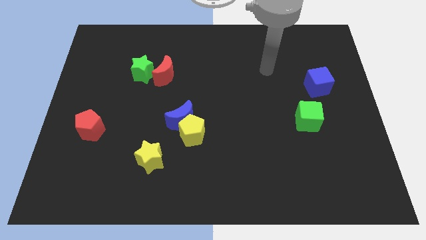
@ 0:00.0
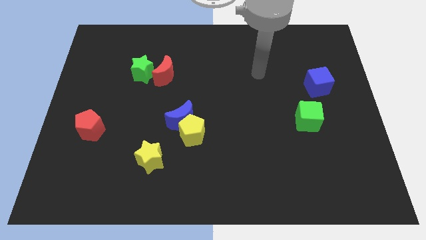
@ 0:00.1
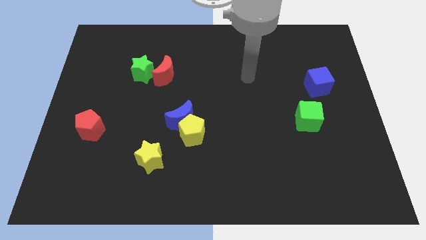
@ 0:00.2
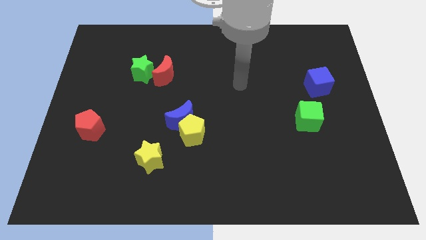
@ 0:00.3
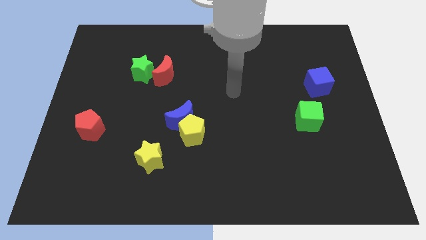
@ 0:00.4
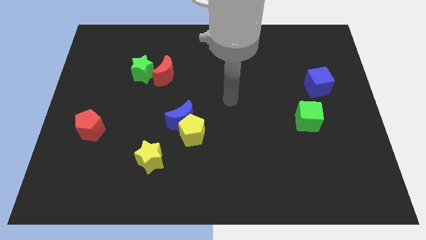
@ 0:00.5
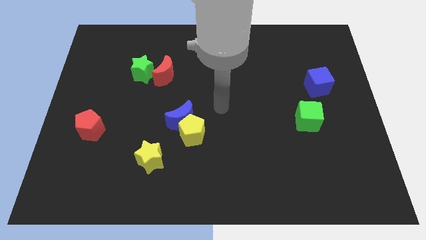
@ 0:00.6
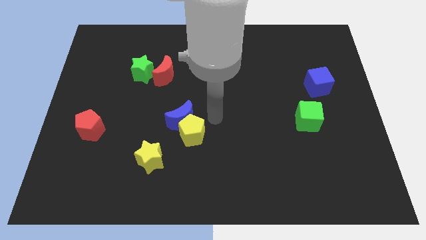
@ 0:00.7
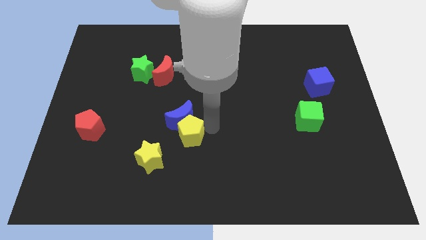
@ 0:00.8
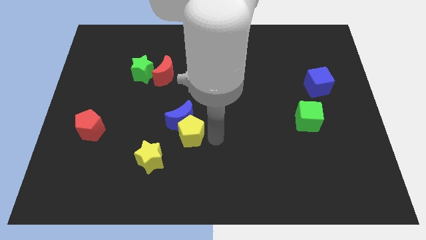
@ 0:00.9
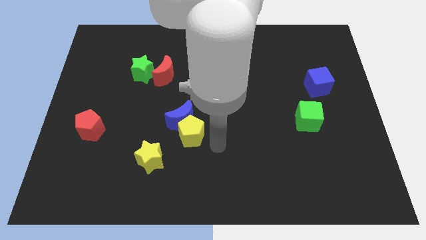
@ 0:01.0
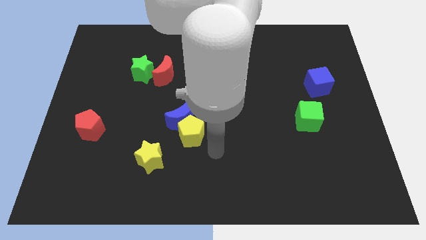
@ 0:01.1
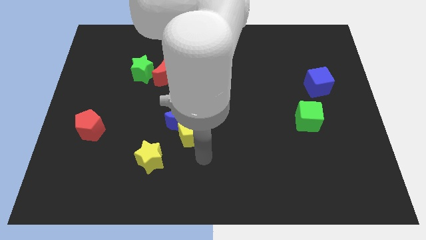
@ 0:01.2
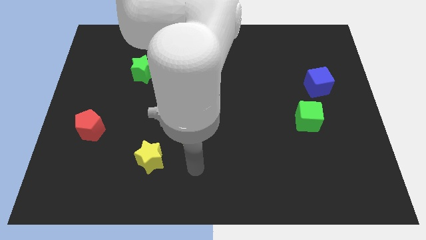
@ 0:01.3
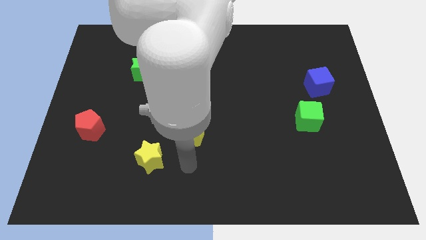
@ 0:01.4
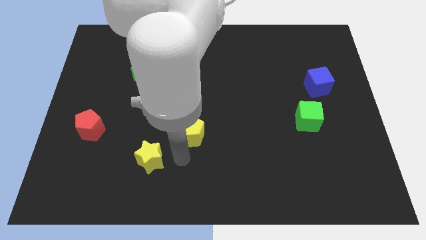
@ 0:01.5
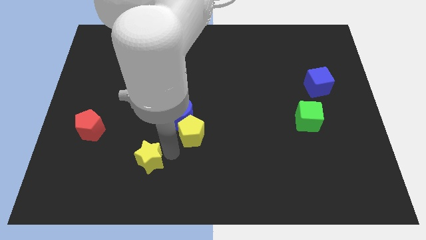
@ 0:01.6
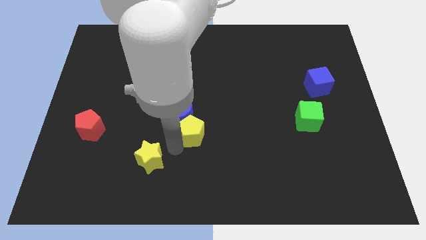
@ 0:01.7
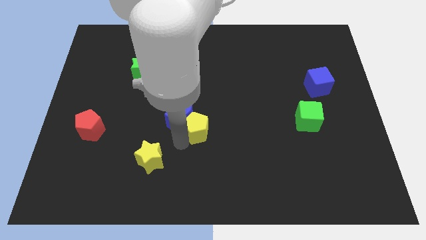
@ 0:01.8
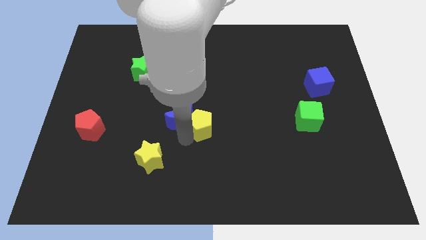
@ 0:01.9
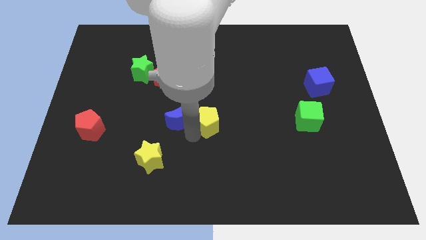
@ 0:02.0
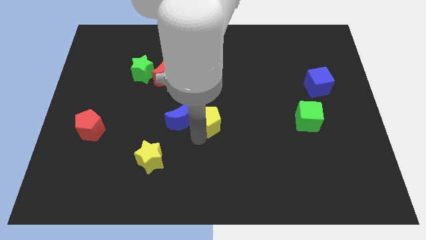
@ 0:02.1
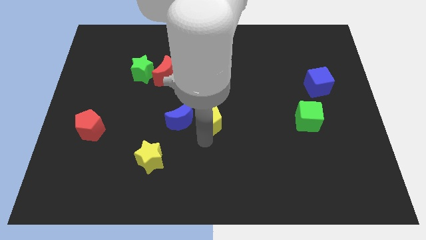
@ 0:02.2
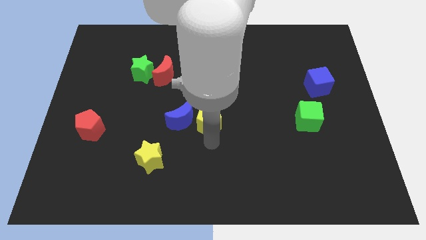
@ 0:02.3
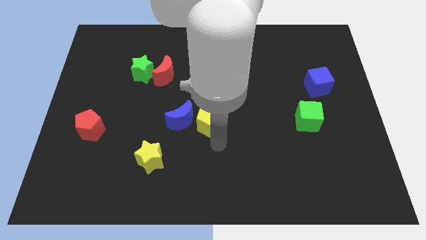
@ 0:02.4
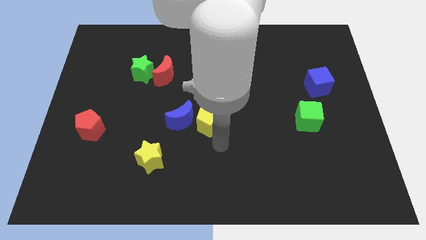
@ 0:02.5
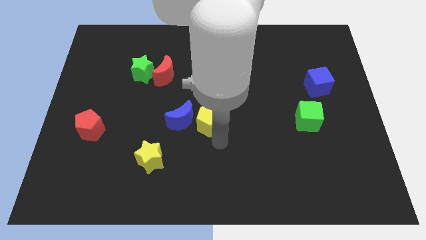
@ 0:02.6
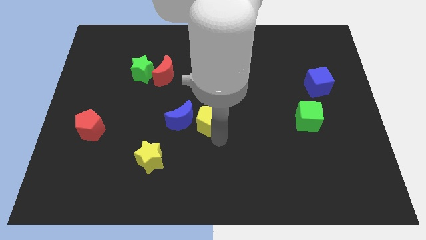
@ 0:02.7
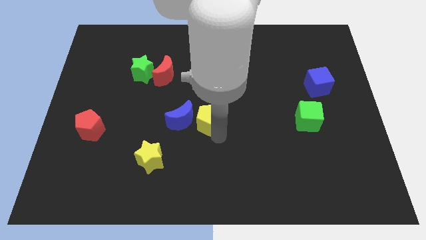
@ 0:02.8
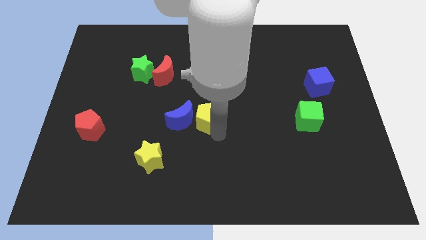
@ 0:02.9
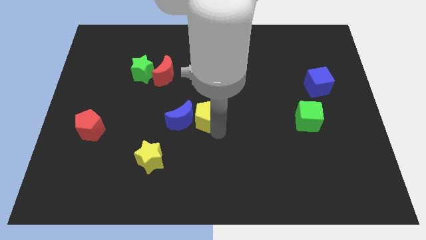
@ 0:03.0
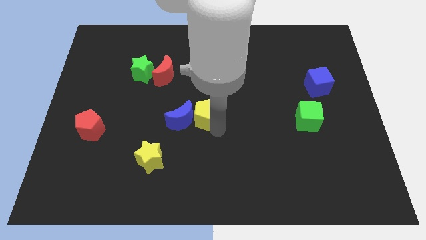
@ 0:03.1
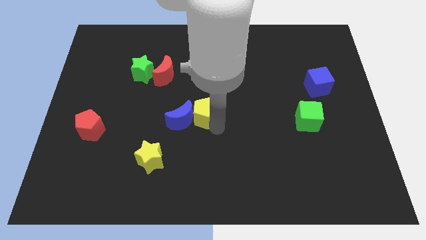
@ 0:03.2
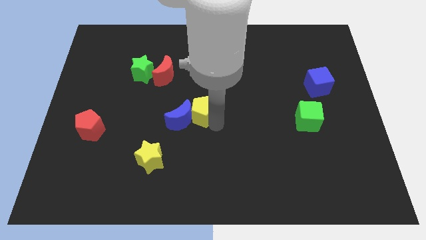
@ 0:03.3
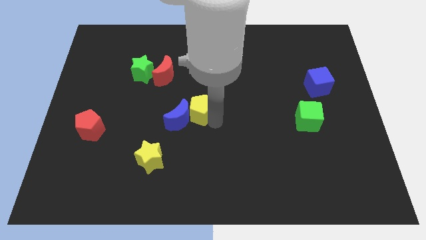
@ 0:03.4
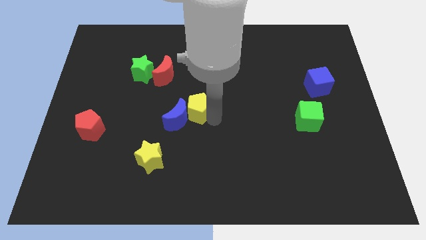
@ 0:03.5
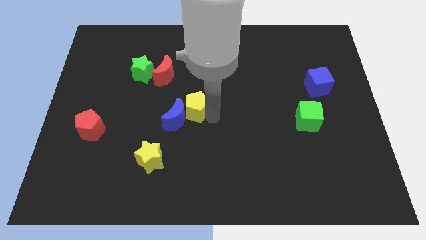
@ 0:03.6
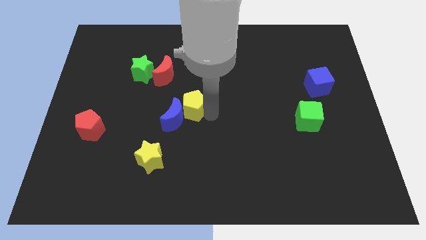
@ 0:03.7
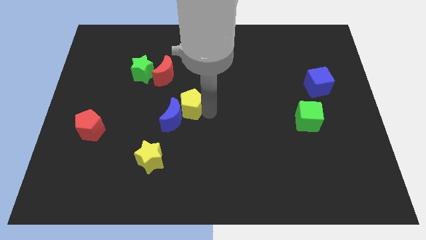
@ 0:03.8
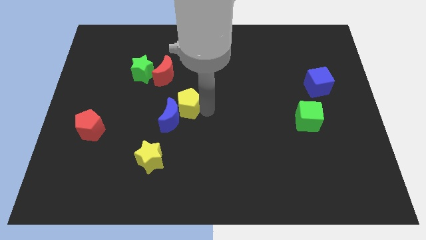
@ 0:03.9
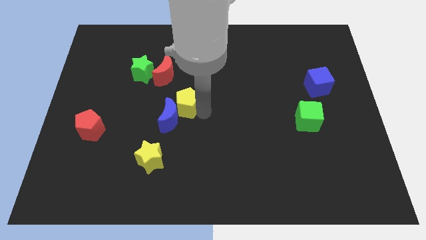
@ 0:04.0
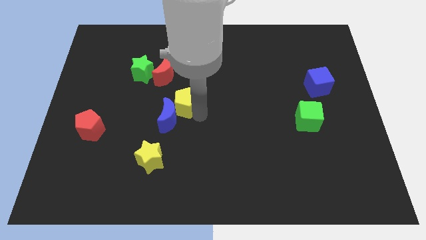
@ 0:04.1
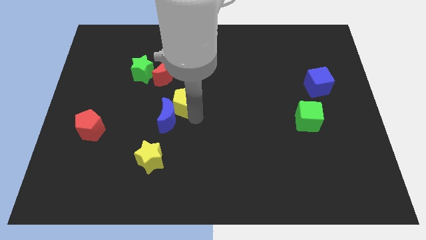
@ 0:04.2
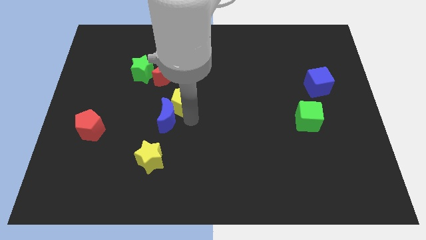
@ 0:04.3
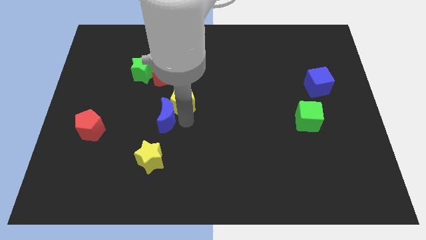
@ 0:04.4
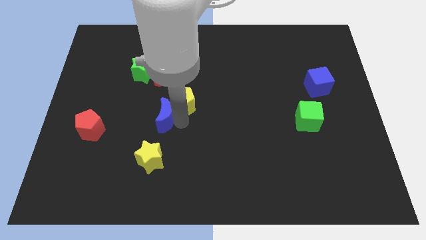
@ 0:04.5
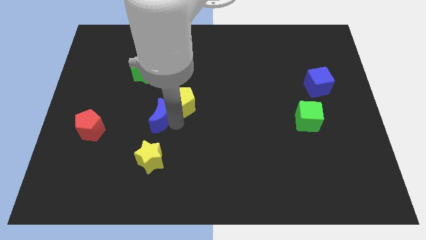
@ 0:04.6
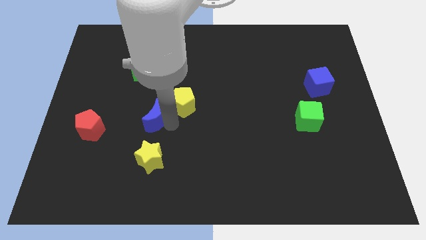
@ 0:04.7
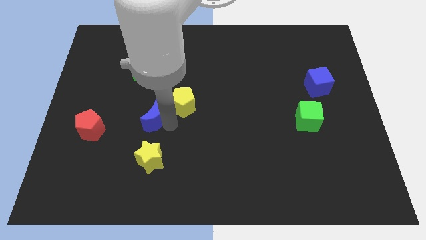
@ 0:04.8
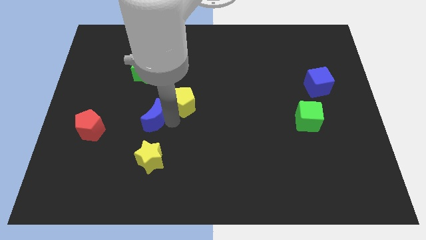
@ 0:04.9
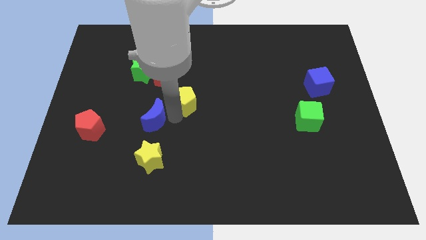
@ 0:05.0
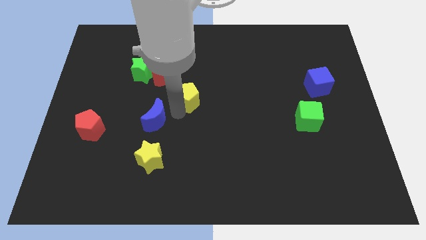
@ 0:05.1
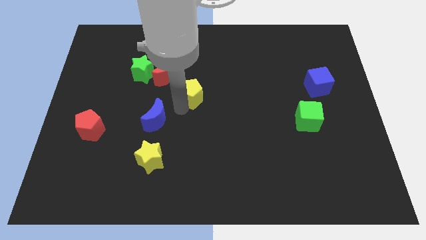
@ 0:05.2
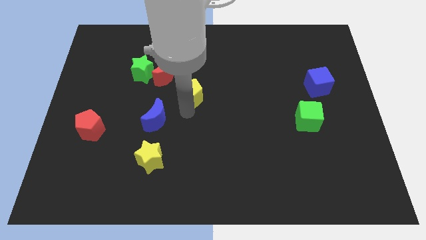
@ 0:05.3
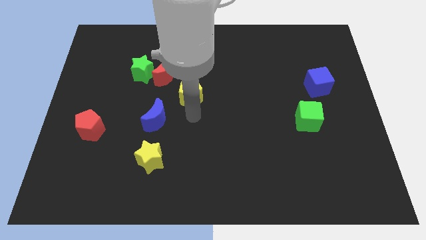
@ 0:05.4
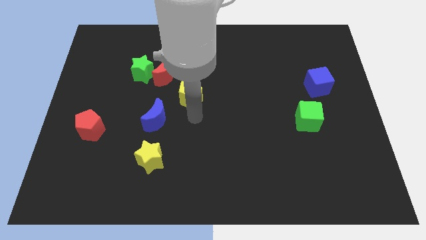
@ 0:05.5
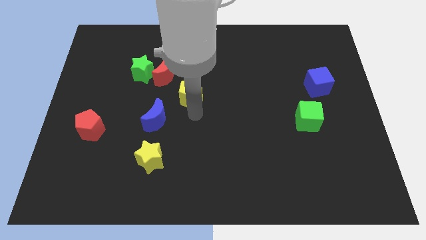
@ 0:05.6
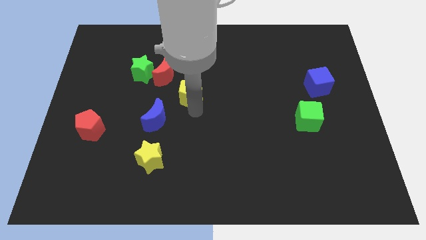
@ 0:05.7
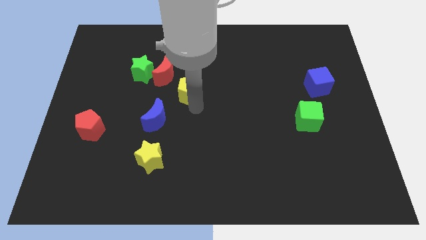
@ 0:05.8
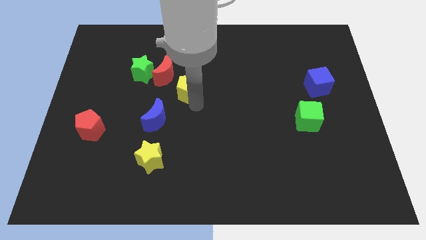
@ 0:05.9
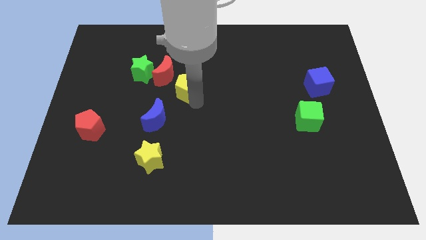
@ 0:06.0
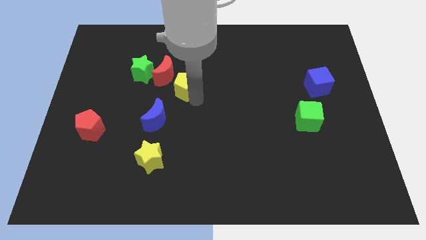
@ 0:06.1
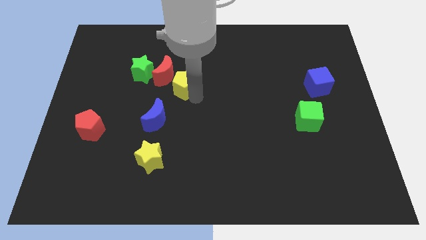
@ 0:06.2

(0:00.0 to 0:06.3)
slide the yellow pentagon just right of the green star

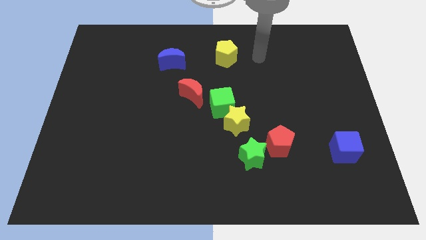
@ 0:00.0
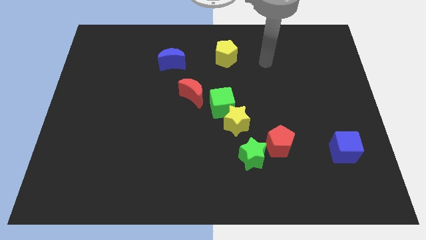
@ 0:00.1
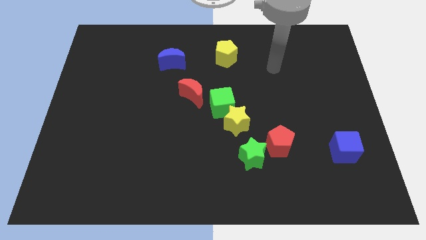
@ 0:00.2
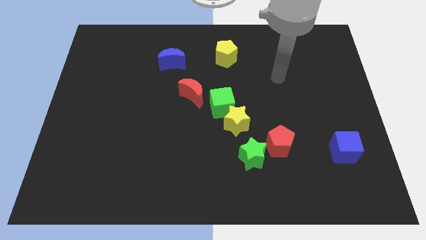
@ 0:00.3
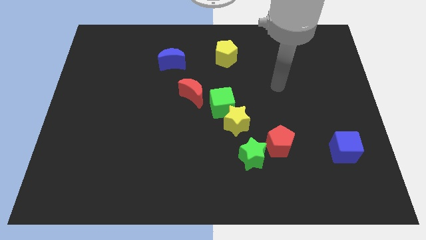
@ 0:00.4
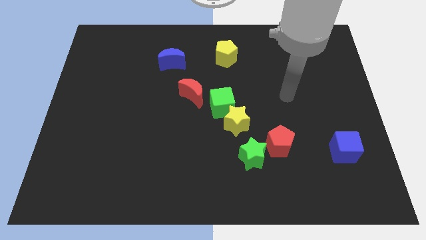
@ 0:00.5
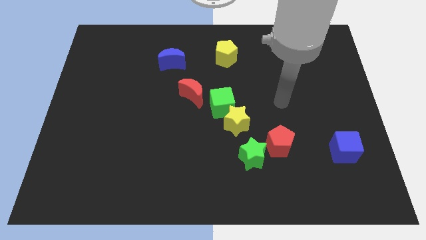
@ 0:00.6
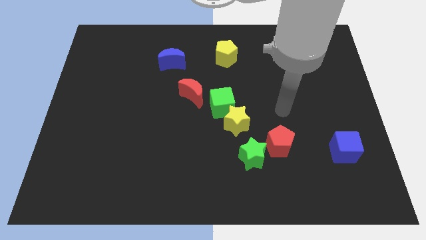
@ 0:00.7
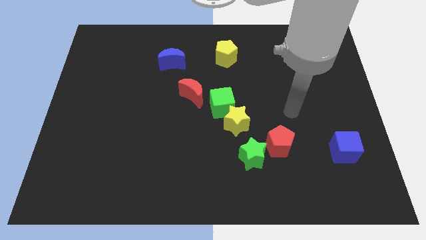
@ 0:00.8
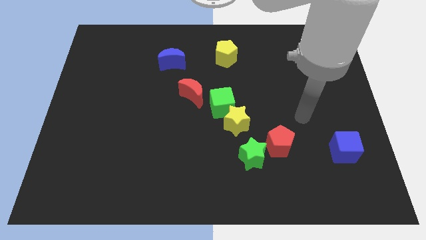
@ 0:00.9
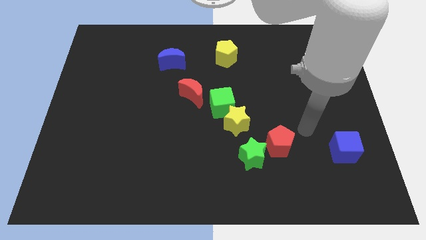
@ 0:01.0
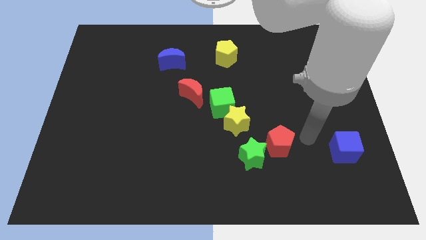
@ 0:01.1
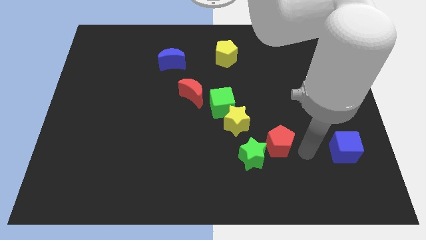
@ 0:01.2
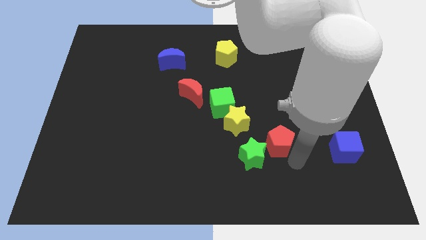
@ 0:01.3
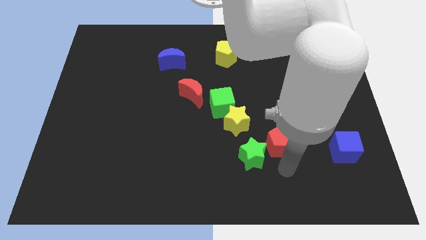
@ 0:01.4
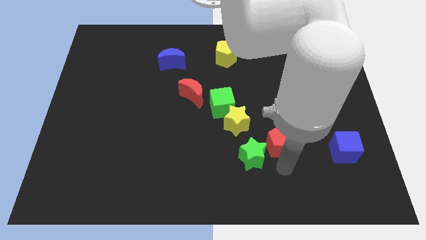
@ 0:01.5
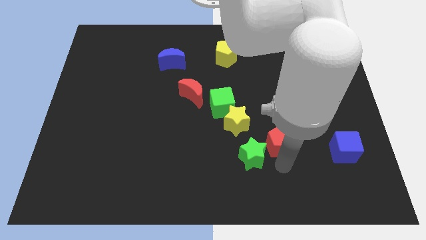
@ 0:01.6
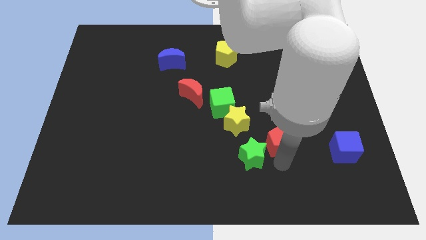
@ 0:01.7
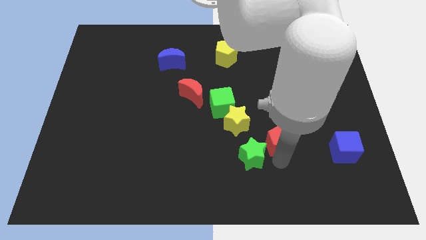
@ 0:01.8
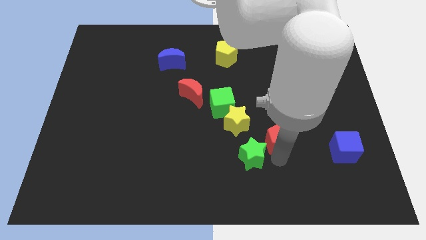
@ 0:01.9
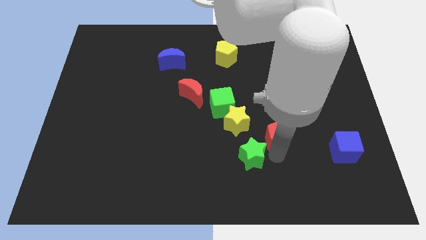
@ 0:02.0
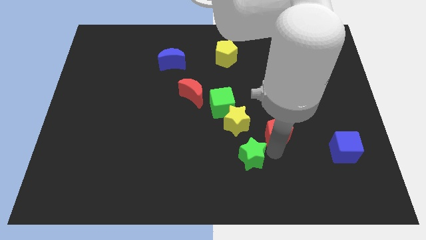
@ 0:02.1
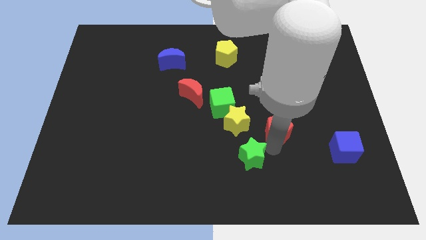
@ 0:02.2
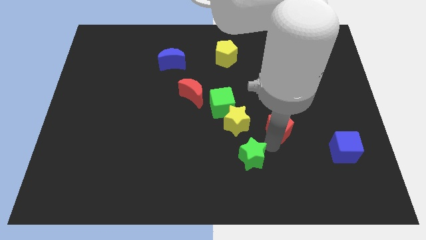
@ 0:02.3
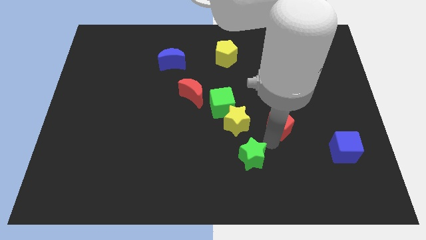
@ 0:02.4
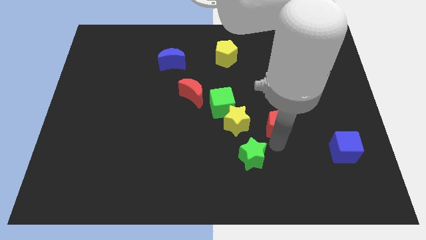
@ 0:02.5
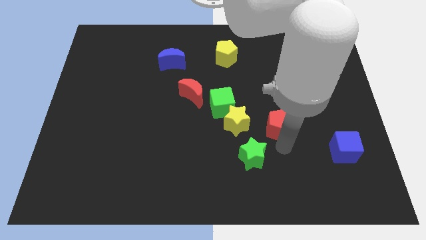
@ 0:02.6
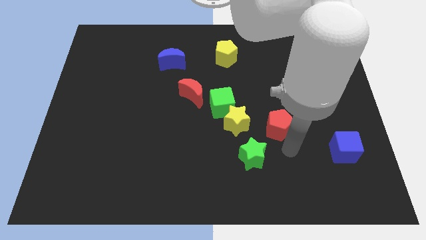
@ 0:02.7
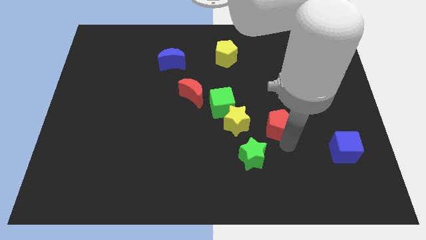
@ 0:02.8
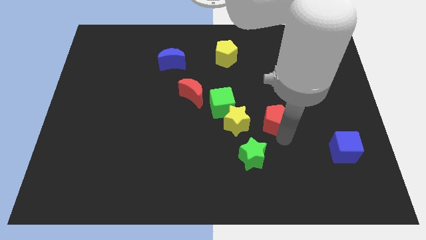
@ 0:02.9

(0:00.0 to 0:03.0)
move the red pentagon right of the green cube
